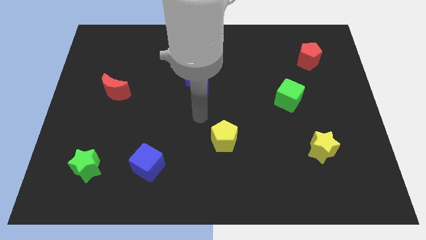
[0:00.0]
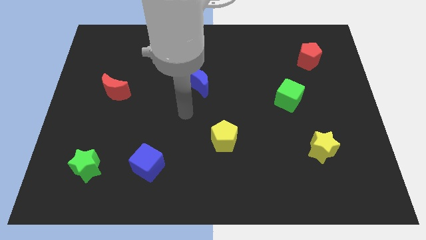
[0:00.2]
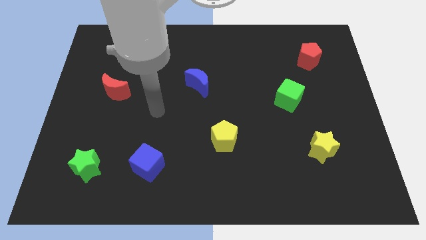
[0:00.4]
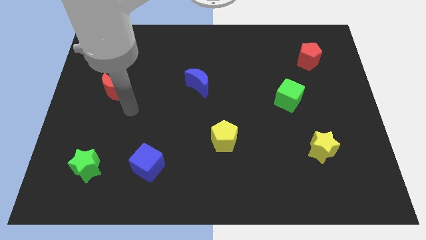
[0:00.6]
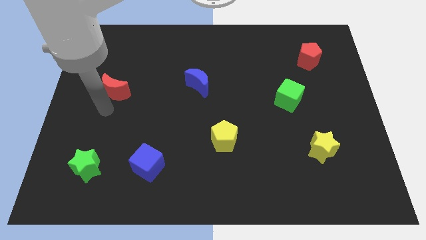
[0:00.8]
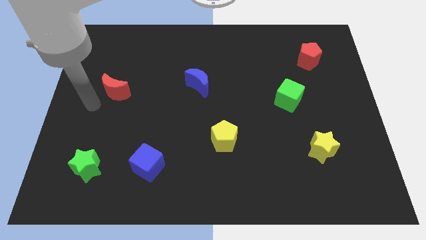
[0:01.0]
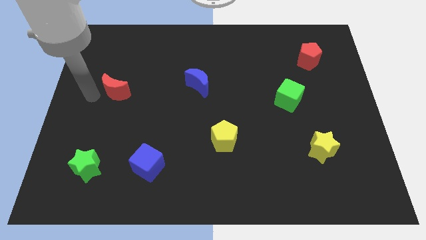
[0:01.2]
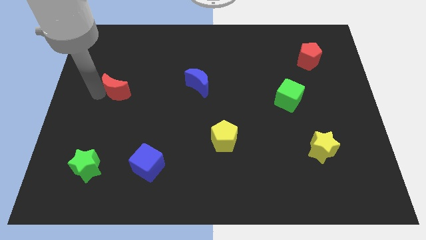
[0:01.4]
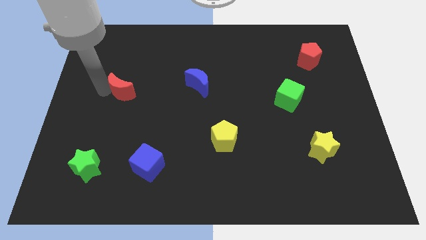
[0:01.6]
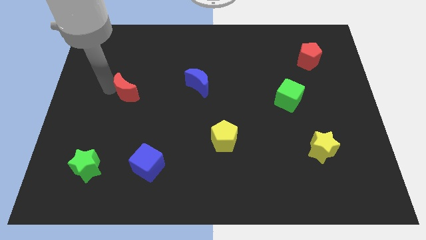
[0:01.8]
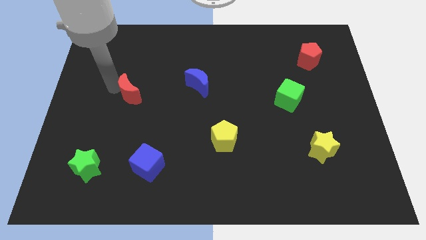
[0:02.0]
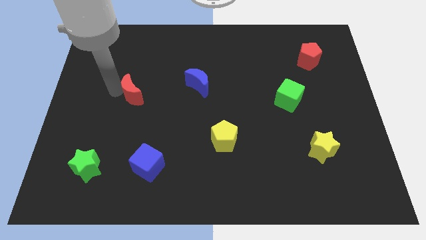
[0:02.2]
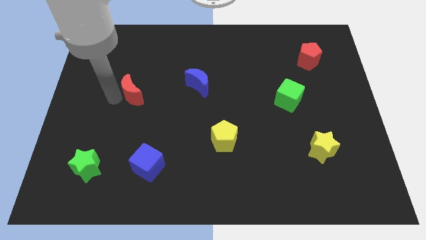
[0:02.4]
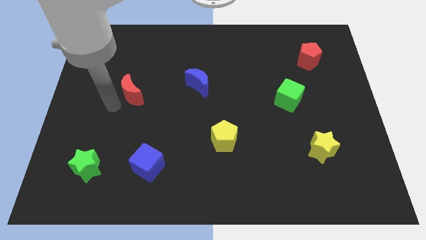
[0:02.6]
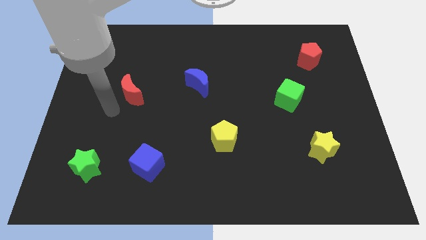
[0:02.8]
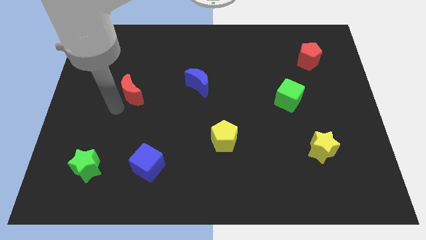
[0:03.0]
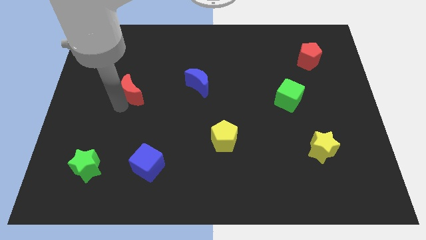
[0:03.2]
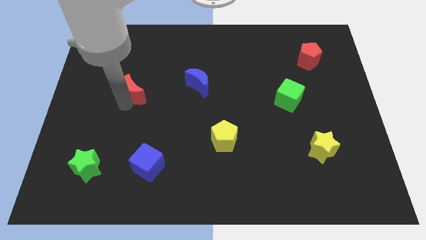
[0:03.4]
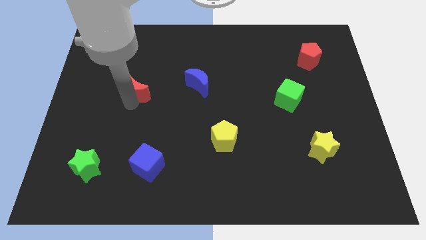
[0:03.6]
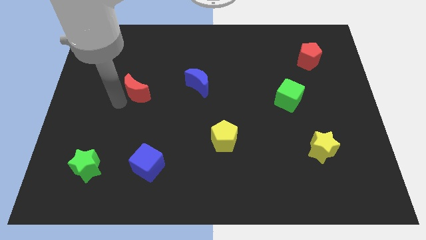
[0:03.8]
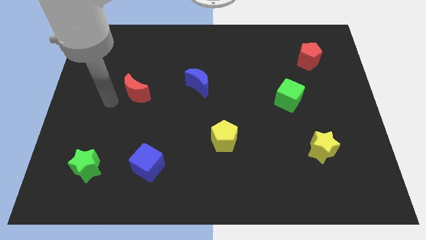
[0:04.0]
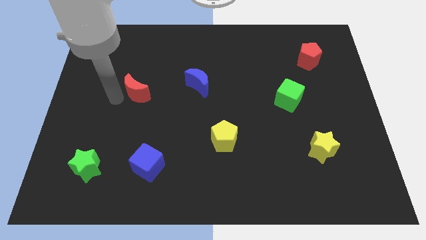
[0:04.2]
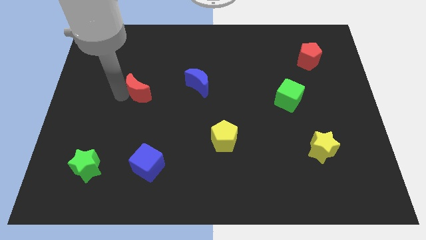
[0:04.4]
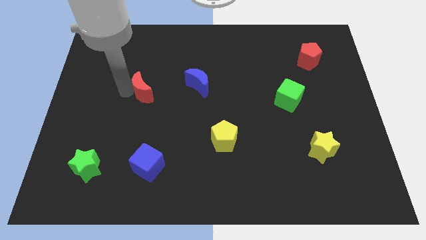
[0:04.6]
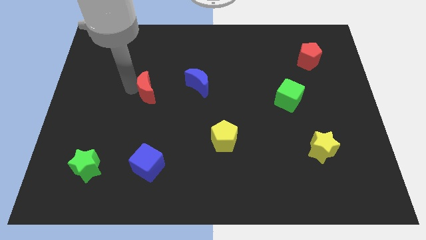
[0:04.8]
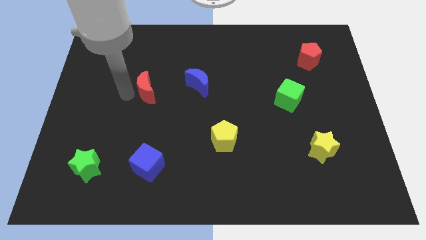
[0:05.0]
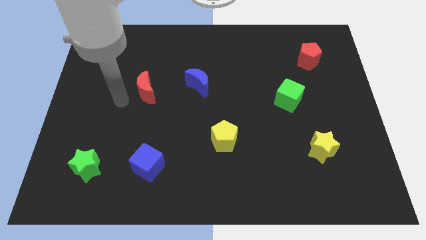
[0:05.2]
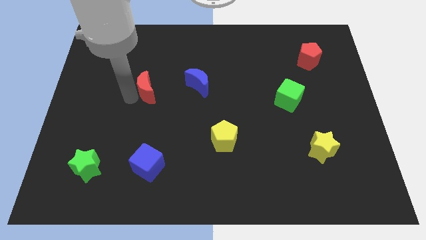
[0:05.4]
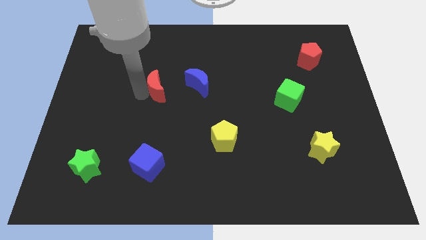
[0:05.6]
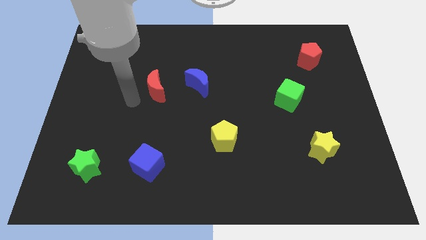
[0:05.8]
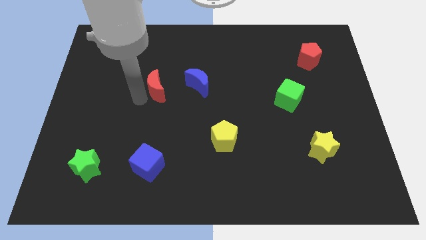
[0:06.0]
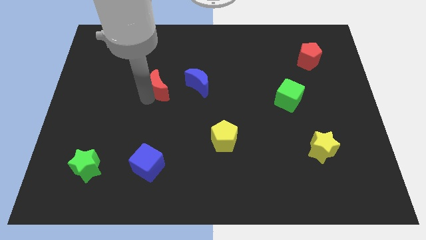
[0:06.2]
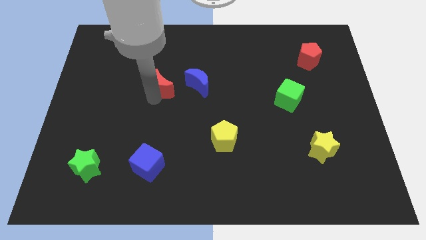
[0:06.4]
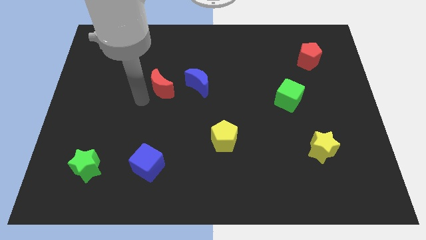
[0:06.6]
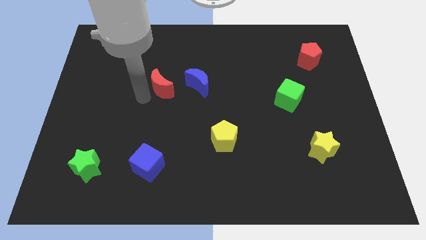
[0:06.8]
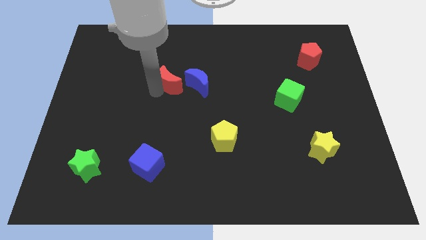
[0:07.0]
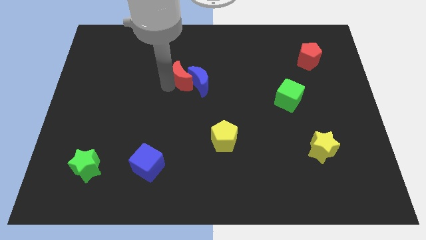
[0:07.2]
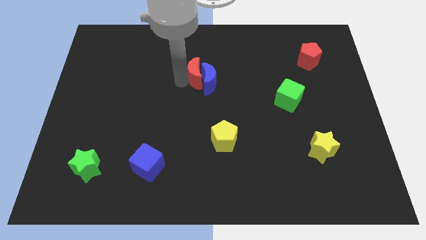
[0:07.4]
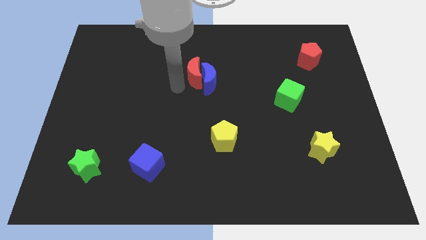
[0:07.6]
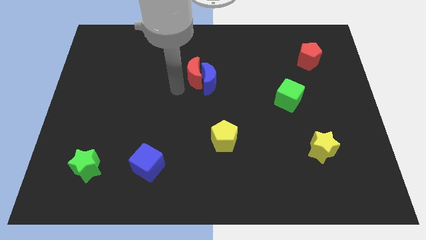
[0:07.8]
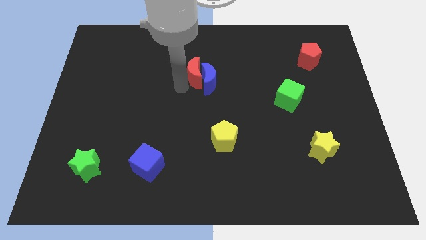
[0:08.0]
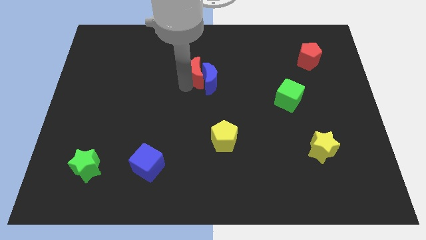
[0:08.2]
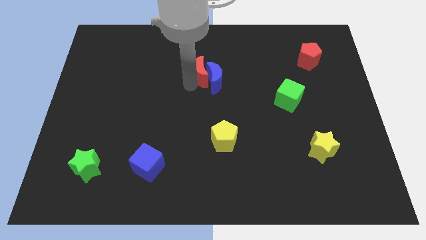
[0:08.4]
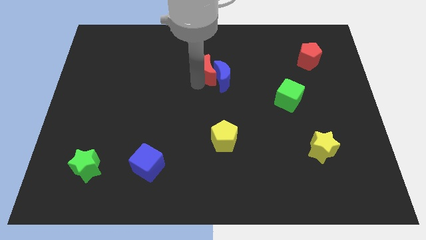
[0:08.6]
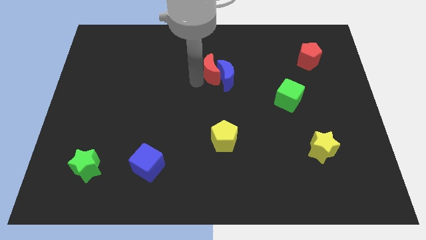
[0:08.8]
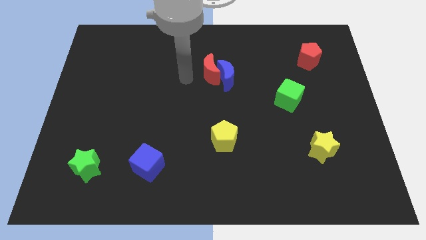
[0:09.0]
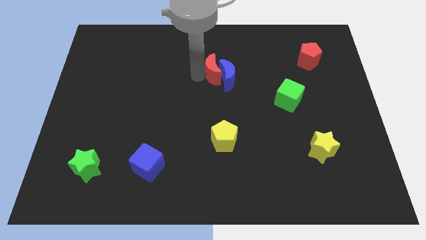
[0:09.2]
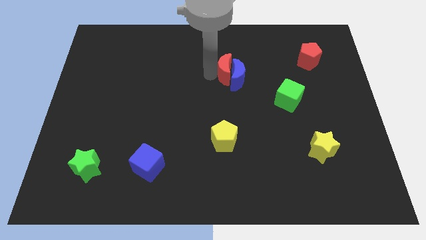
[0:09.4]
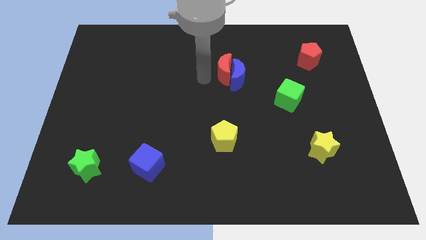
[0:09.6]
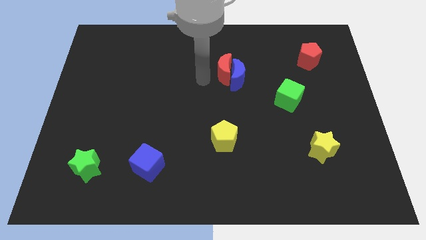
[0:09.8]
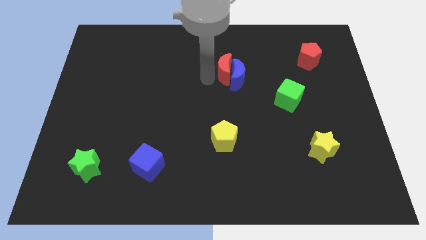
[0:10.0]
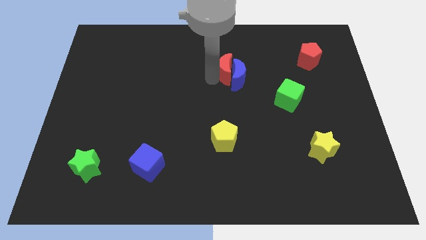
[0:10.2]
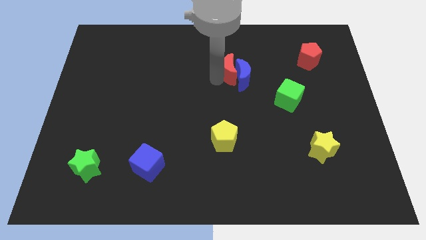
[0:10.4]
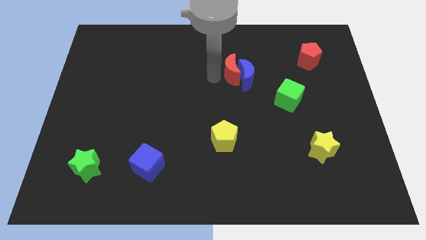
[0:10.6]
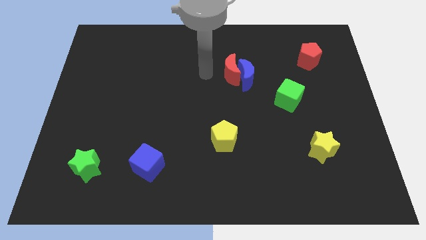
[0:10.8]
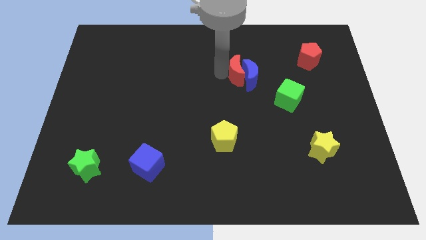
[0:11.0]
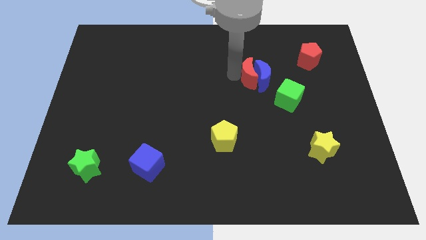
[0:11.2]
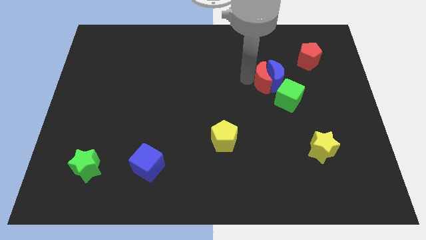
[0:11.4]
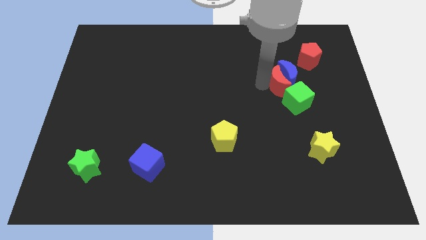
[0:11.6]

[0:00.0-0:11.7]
push the red moon to the bottom left of the red pentagon

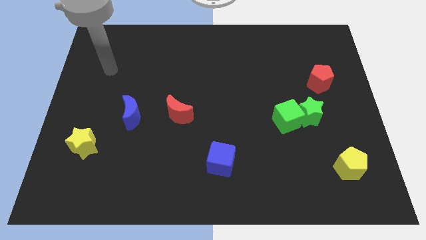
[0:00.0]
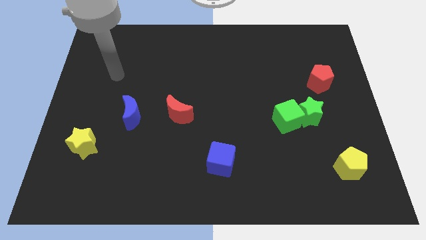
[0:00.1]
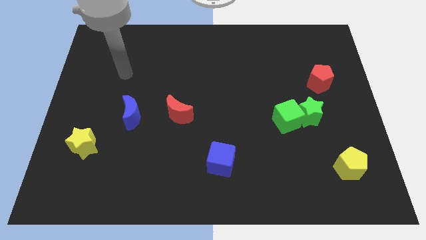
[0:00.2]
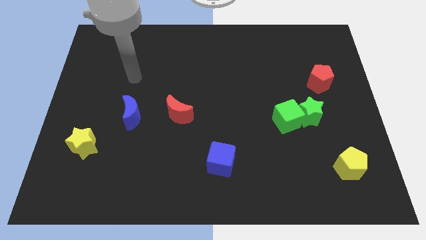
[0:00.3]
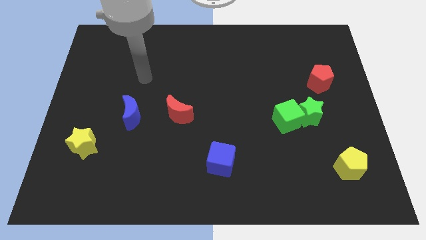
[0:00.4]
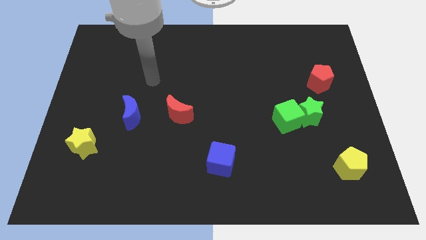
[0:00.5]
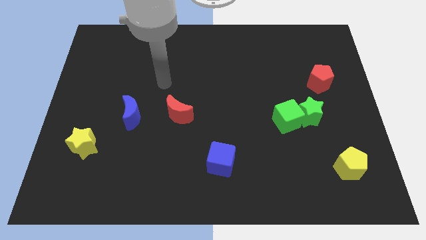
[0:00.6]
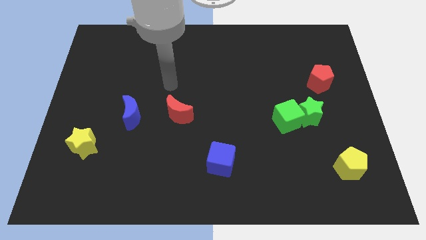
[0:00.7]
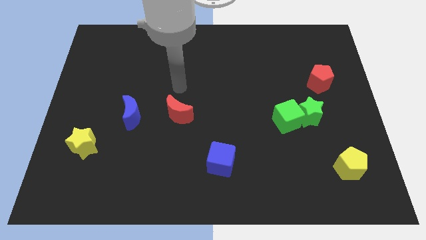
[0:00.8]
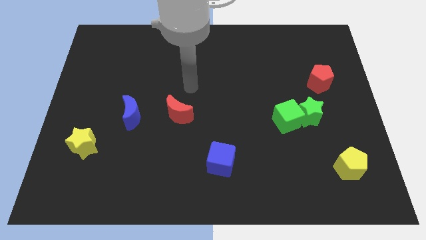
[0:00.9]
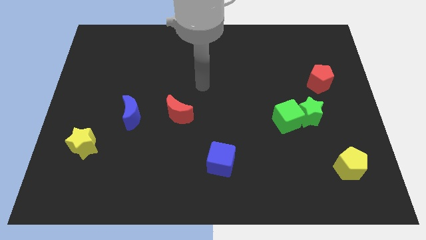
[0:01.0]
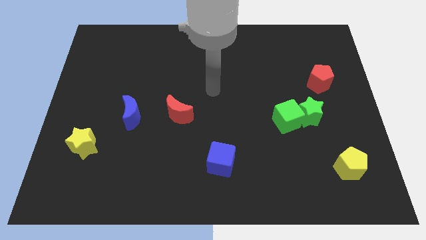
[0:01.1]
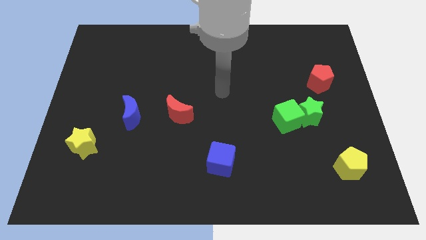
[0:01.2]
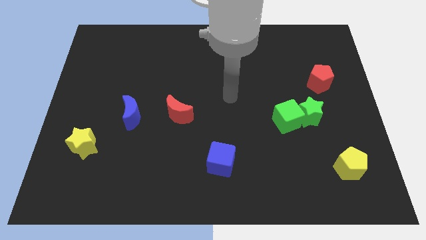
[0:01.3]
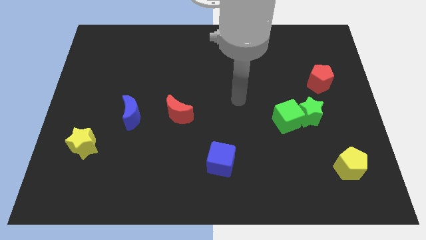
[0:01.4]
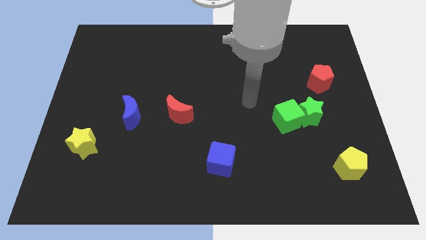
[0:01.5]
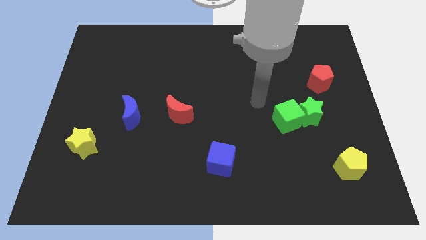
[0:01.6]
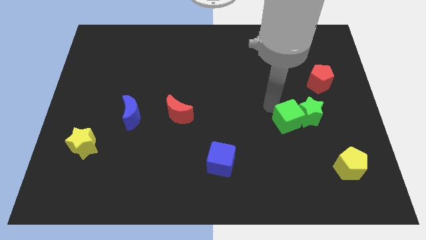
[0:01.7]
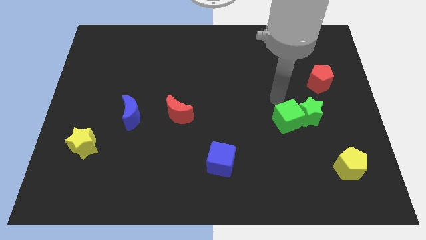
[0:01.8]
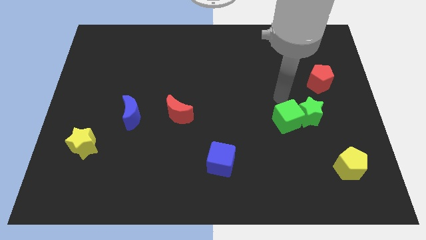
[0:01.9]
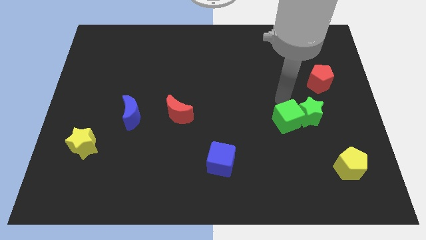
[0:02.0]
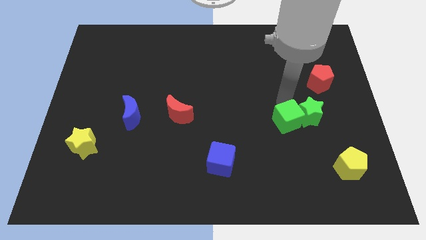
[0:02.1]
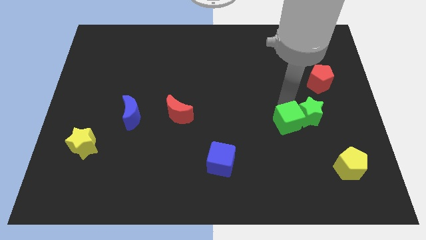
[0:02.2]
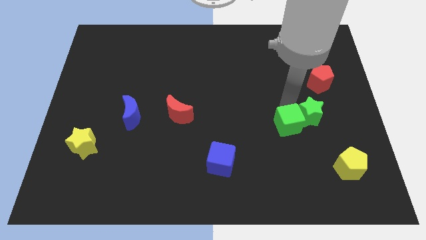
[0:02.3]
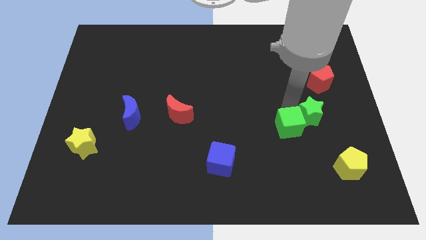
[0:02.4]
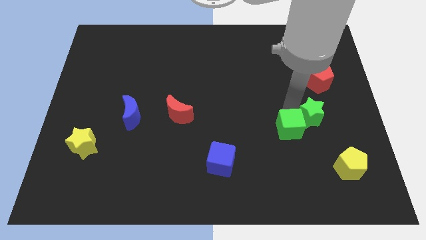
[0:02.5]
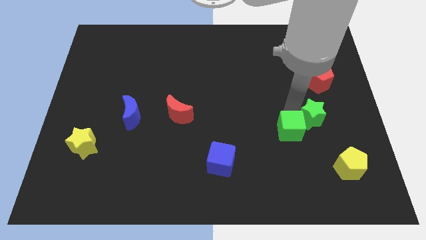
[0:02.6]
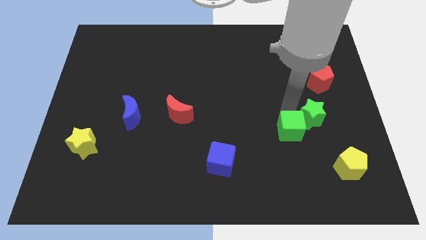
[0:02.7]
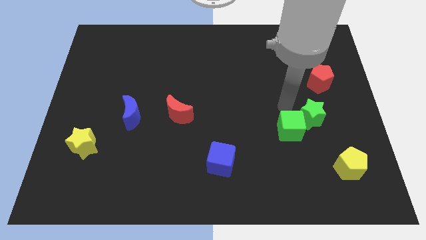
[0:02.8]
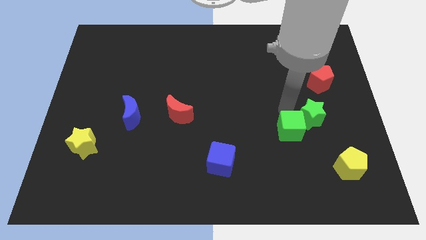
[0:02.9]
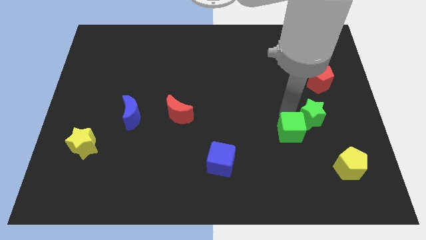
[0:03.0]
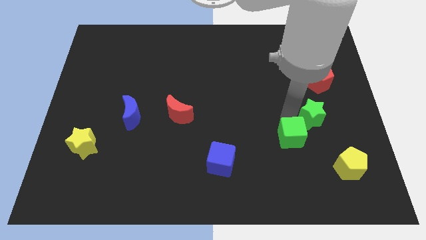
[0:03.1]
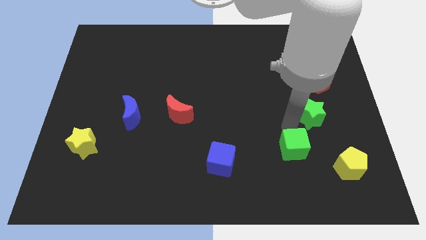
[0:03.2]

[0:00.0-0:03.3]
slide the green cube left of the yellow pentagon
